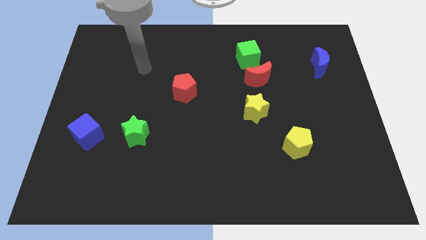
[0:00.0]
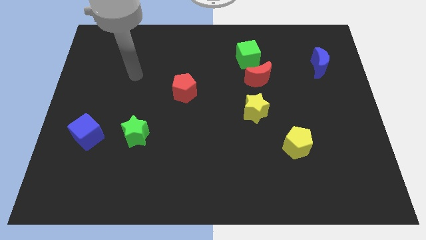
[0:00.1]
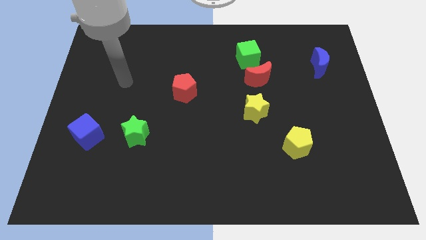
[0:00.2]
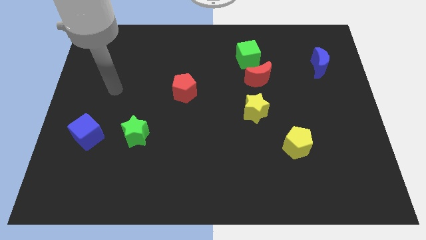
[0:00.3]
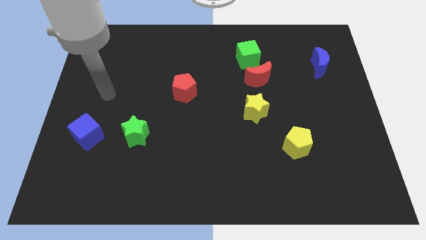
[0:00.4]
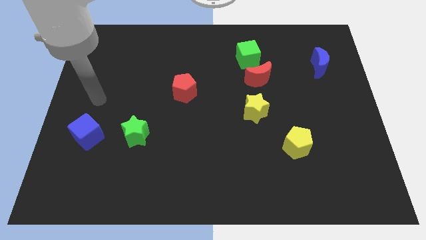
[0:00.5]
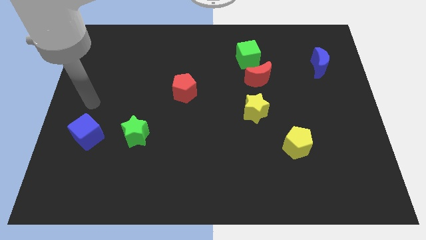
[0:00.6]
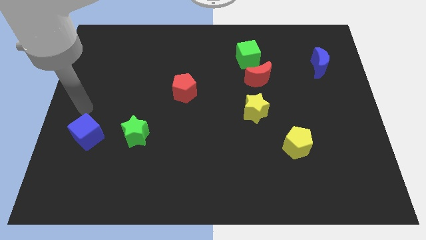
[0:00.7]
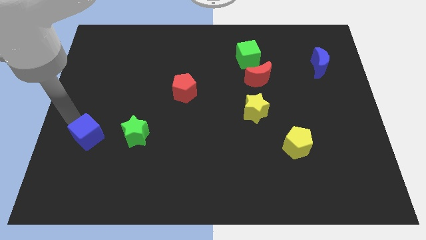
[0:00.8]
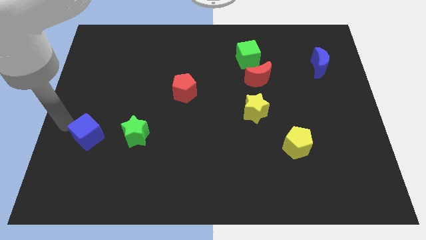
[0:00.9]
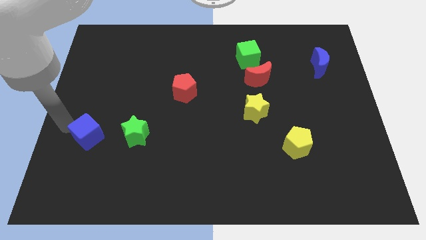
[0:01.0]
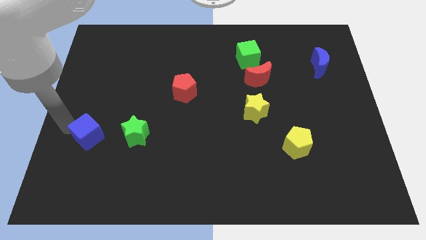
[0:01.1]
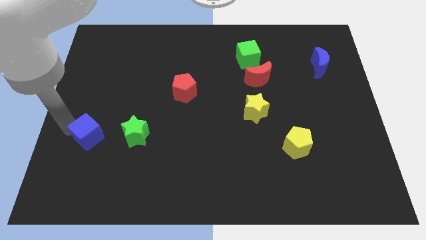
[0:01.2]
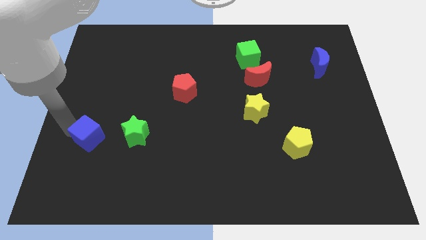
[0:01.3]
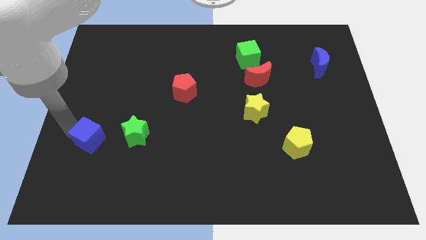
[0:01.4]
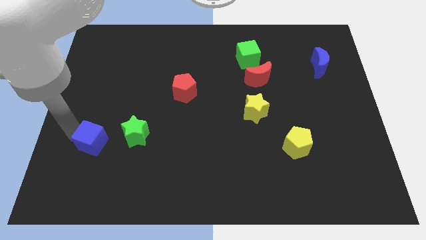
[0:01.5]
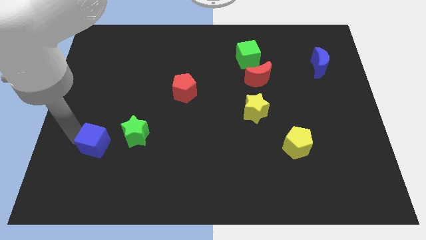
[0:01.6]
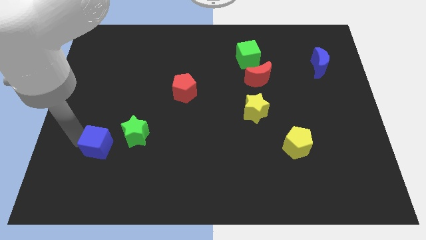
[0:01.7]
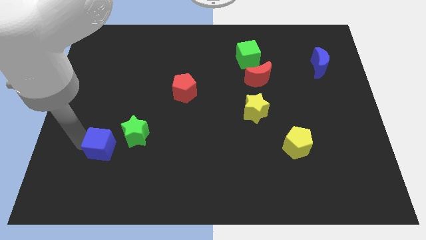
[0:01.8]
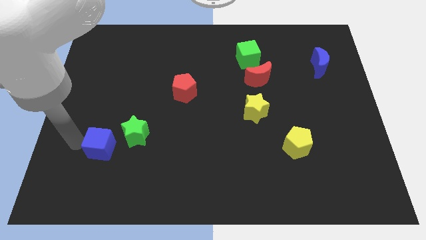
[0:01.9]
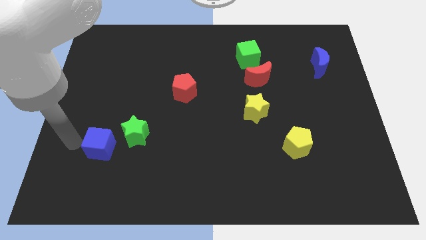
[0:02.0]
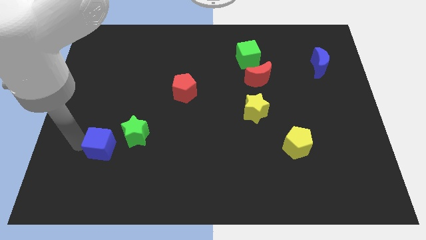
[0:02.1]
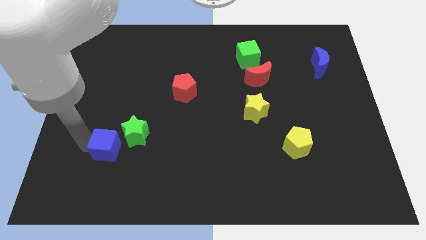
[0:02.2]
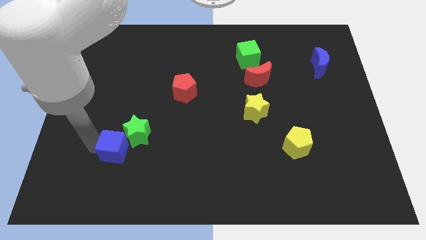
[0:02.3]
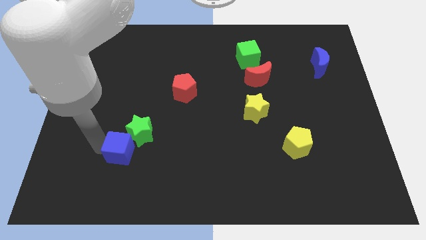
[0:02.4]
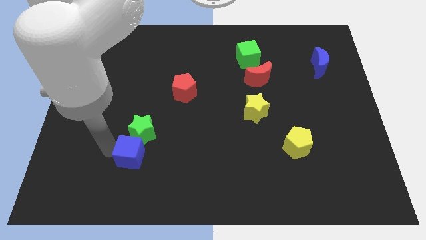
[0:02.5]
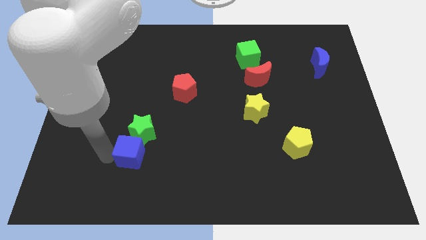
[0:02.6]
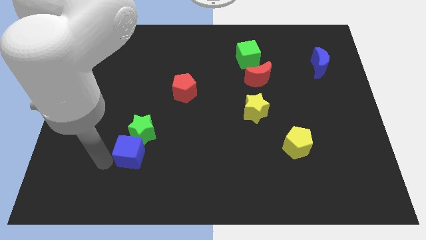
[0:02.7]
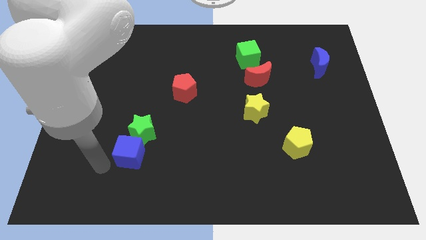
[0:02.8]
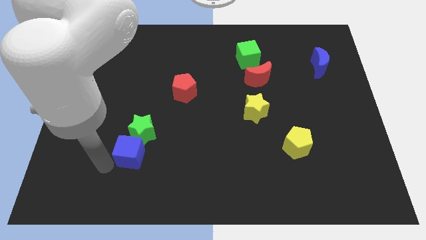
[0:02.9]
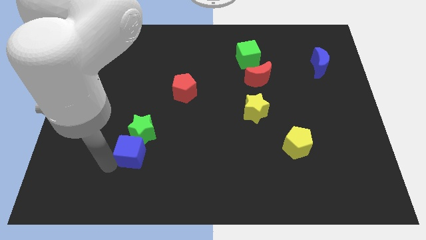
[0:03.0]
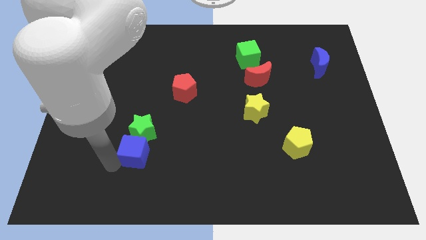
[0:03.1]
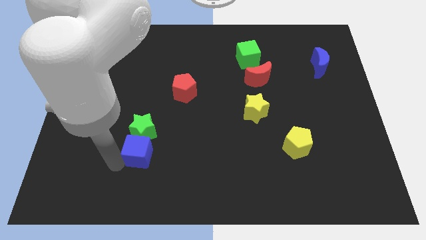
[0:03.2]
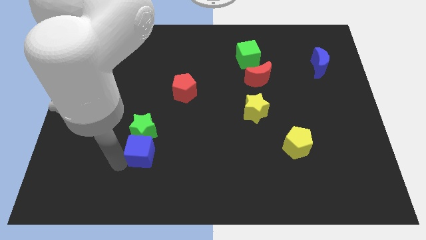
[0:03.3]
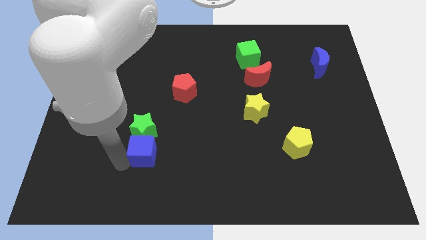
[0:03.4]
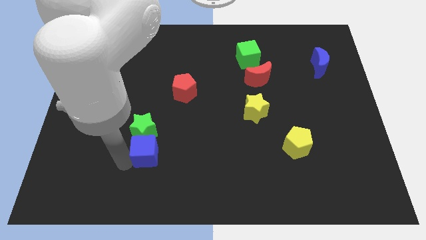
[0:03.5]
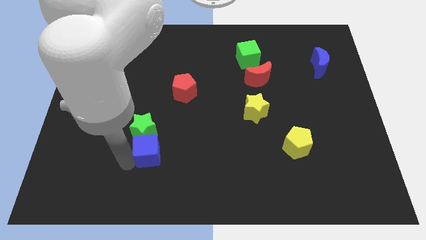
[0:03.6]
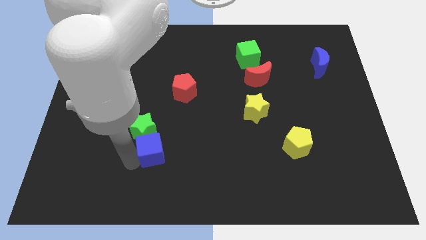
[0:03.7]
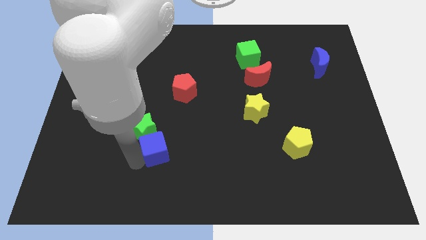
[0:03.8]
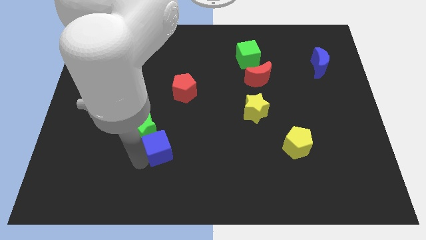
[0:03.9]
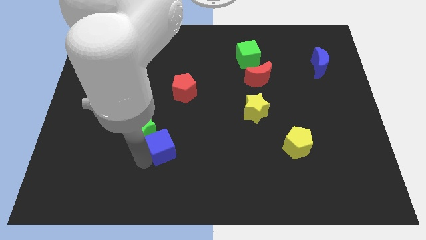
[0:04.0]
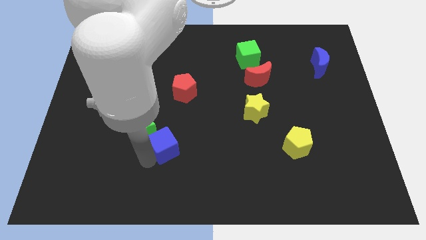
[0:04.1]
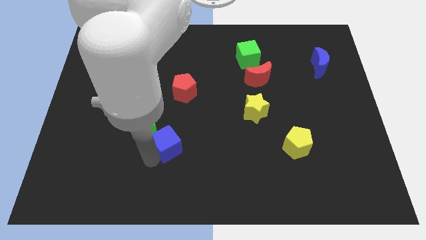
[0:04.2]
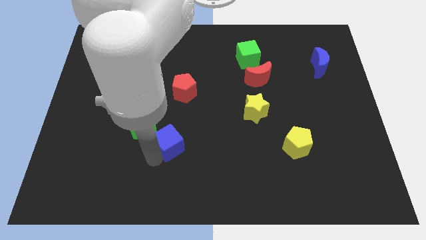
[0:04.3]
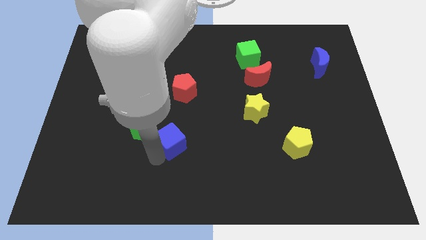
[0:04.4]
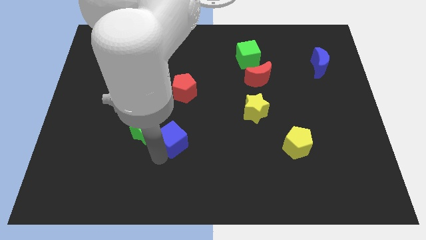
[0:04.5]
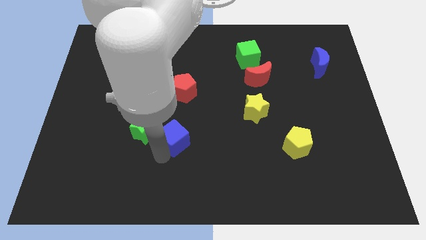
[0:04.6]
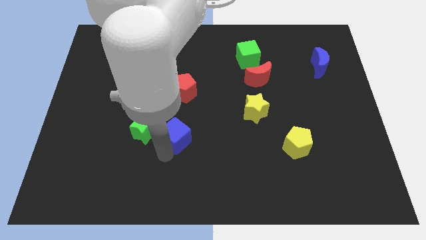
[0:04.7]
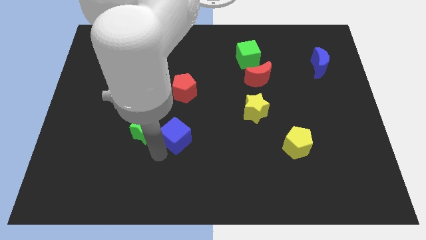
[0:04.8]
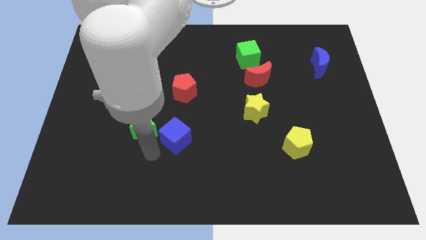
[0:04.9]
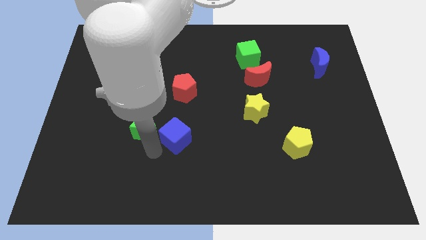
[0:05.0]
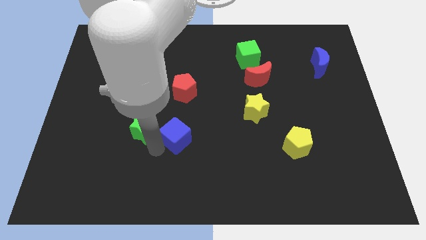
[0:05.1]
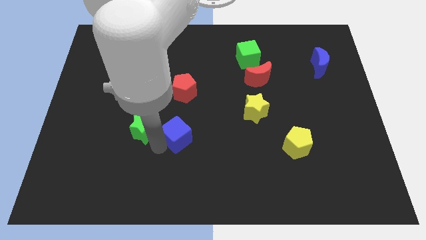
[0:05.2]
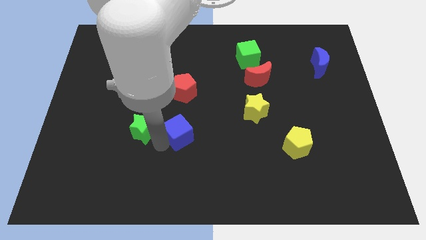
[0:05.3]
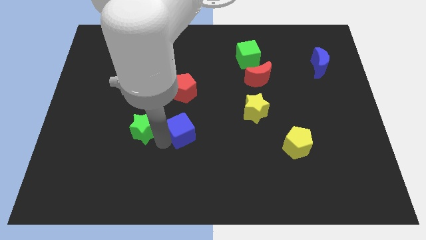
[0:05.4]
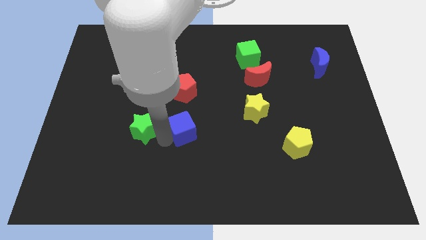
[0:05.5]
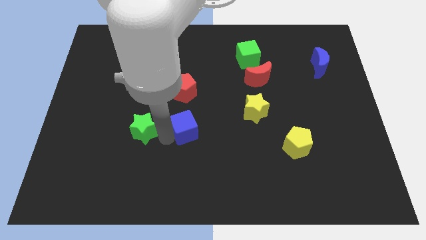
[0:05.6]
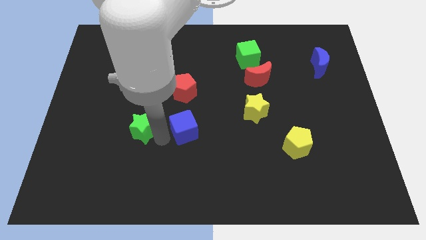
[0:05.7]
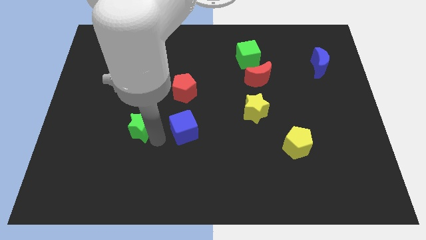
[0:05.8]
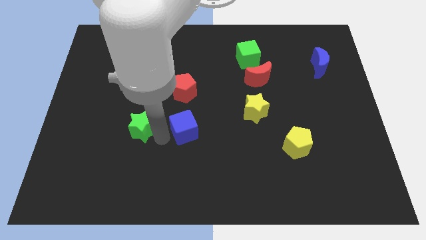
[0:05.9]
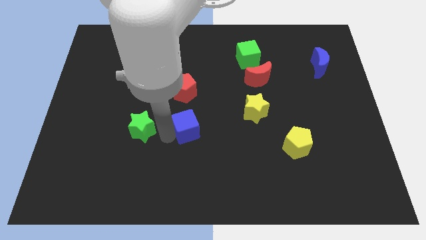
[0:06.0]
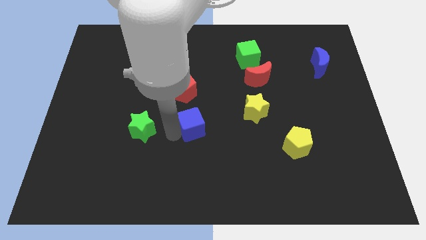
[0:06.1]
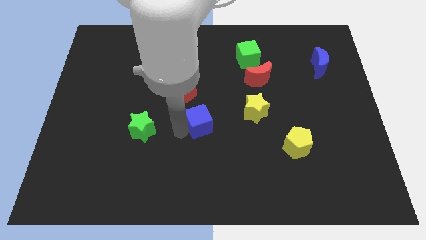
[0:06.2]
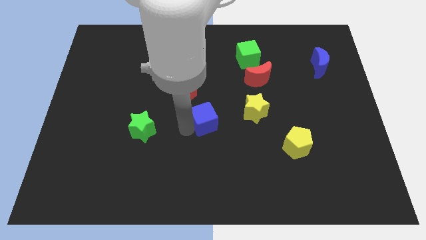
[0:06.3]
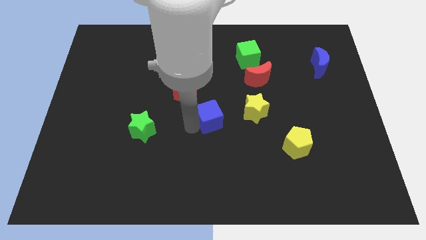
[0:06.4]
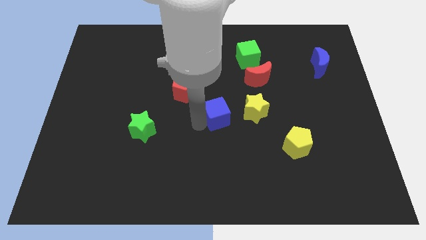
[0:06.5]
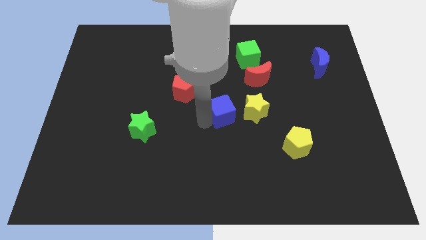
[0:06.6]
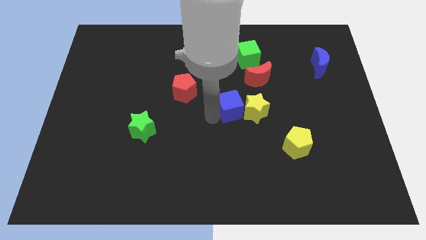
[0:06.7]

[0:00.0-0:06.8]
slide the blue cube next to the yellow star

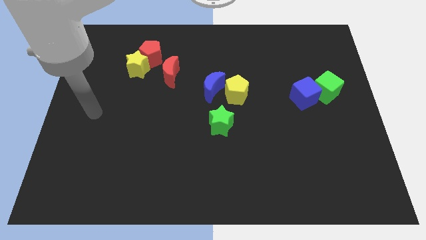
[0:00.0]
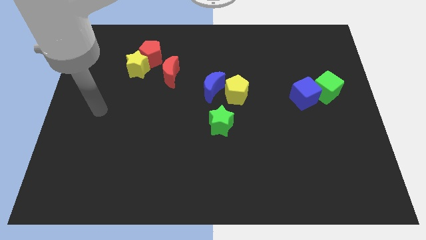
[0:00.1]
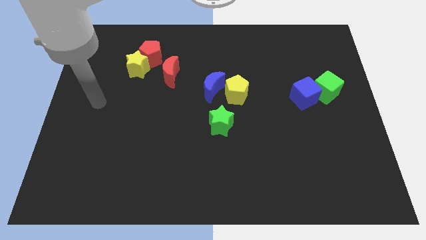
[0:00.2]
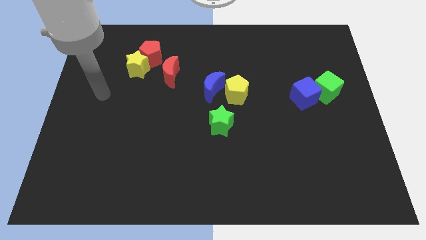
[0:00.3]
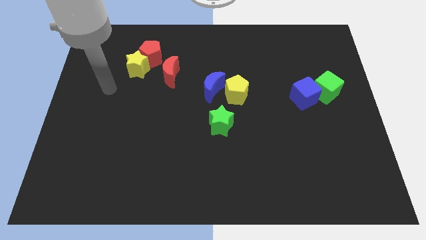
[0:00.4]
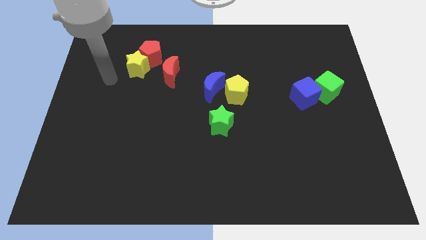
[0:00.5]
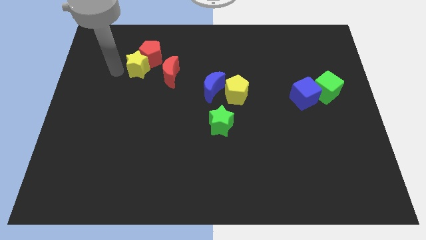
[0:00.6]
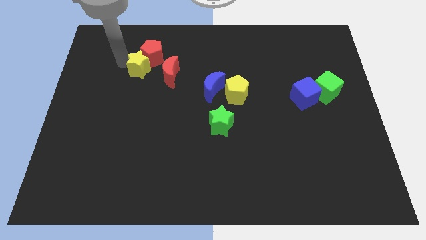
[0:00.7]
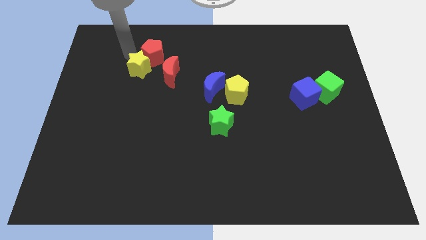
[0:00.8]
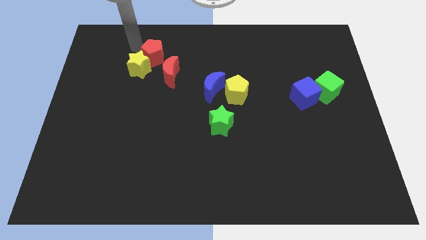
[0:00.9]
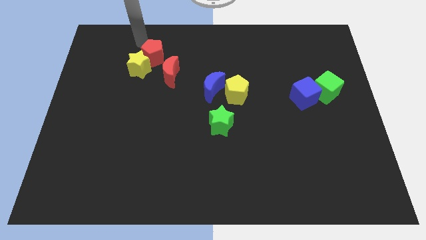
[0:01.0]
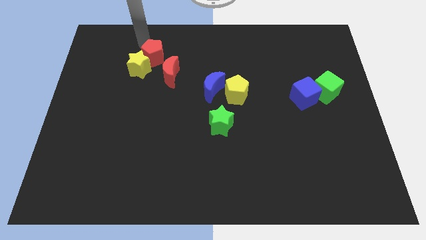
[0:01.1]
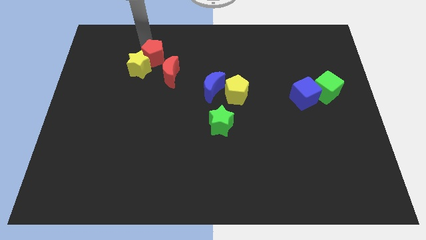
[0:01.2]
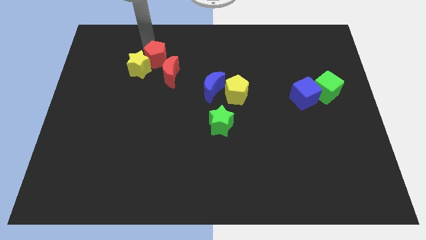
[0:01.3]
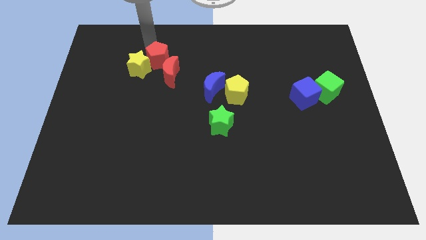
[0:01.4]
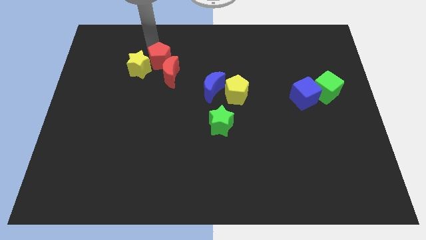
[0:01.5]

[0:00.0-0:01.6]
push the red pentagon next to the red moon
